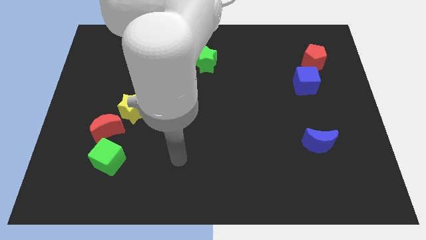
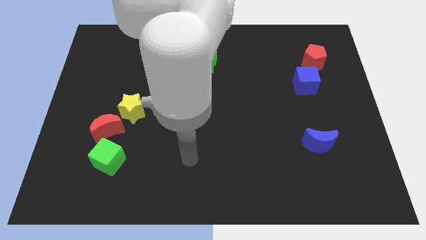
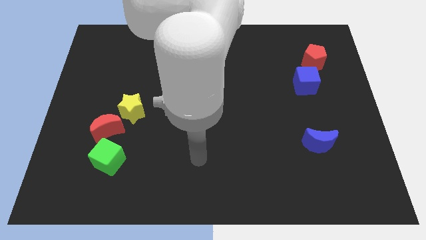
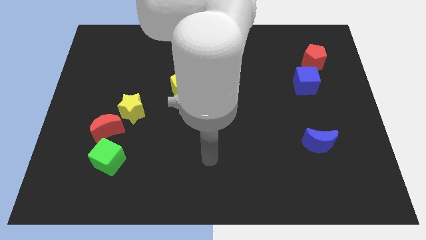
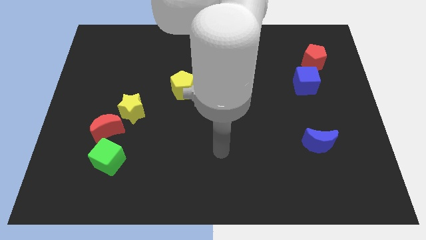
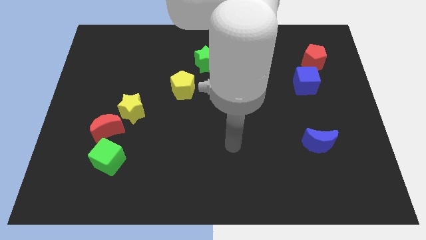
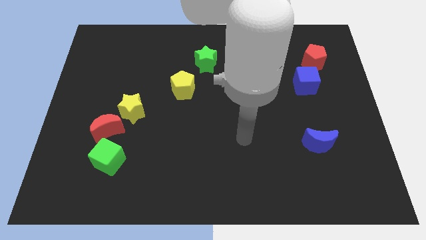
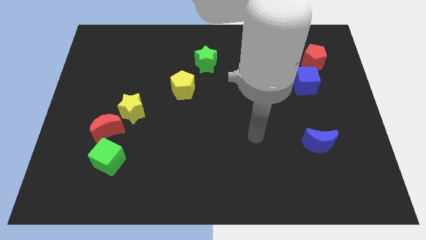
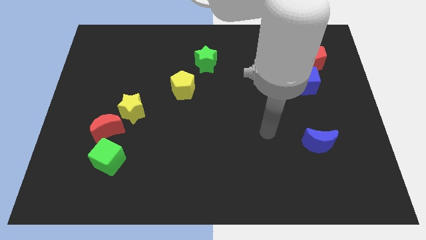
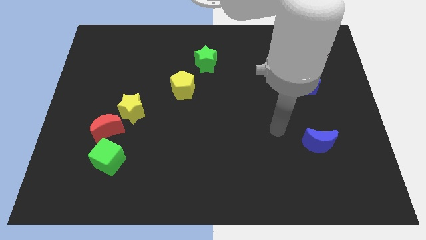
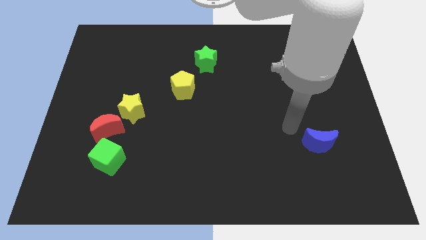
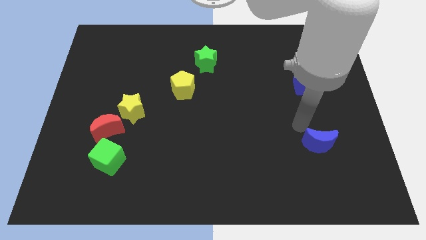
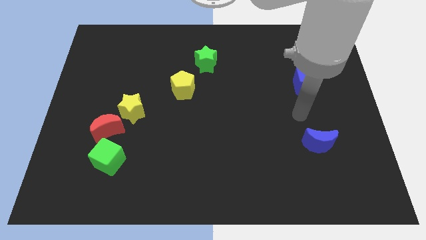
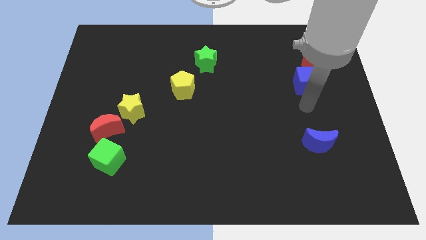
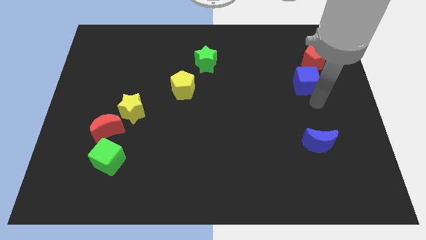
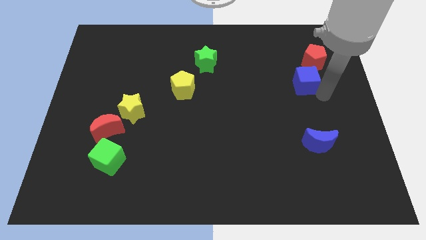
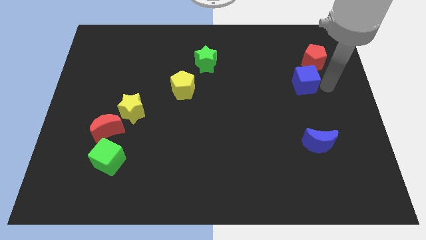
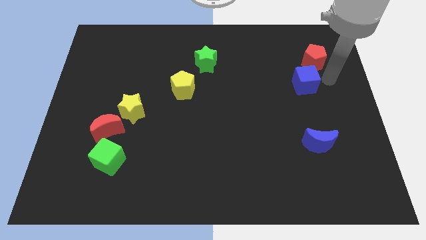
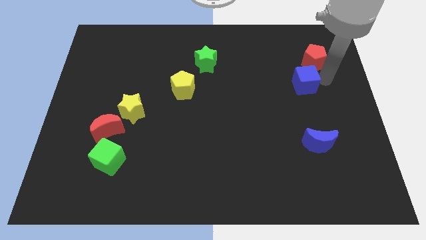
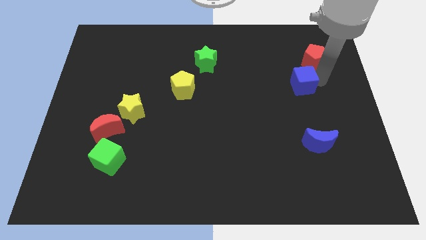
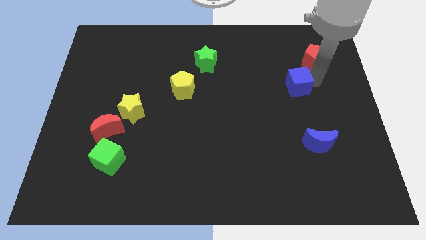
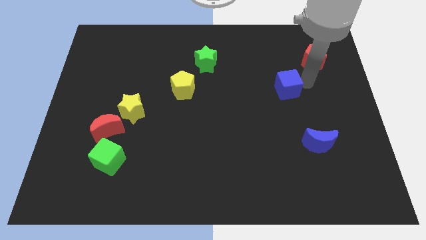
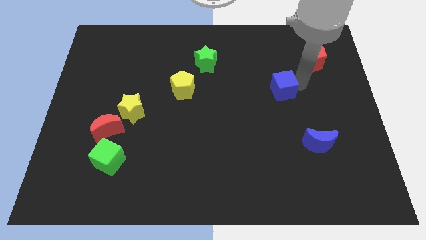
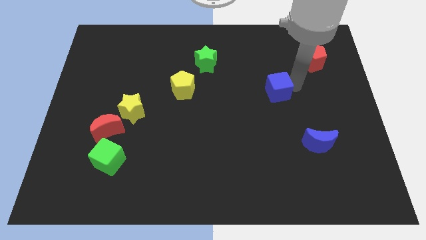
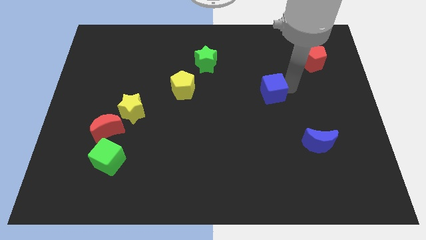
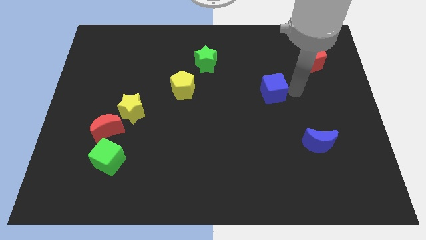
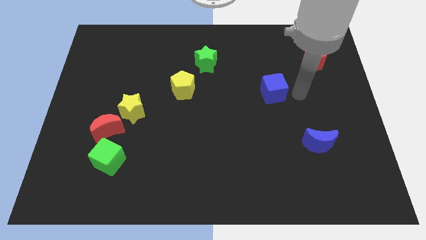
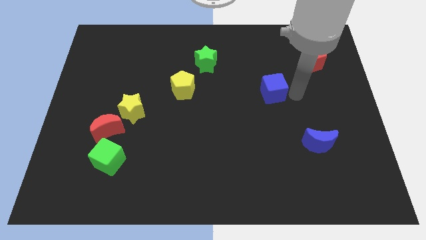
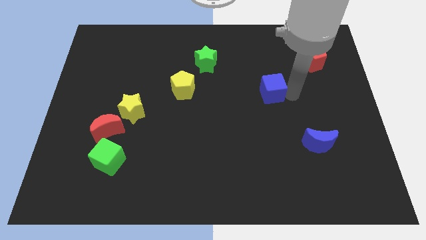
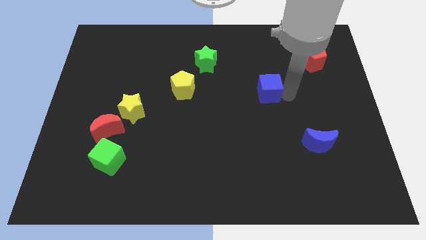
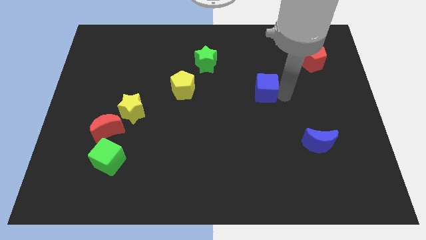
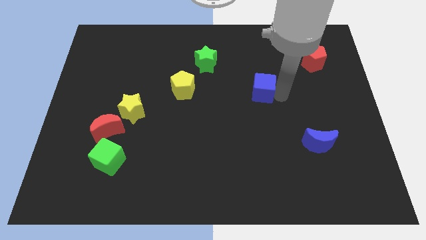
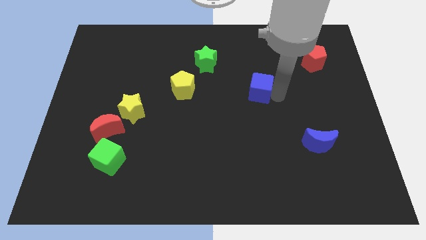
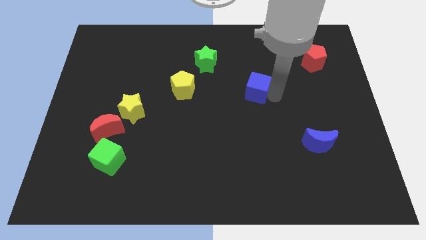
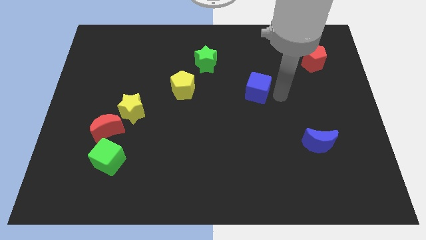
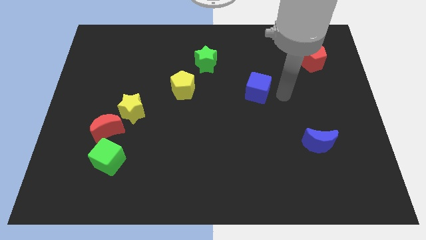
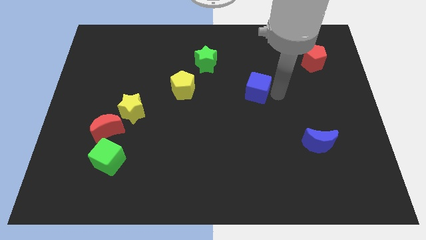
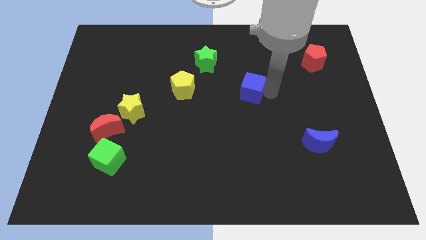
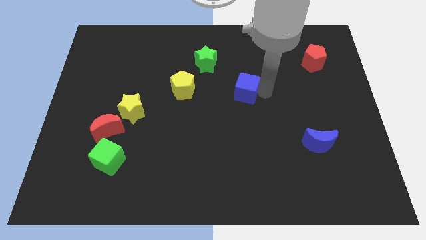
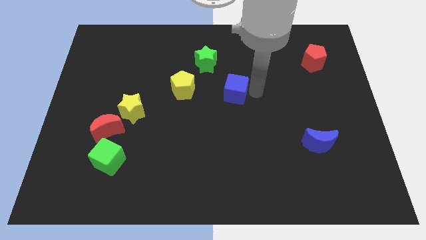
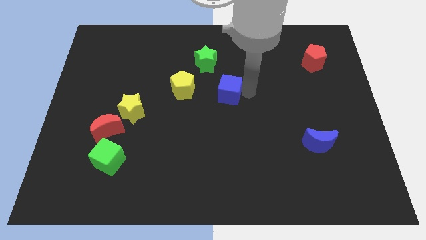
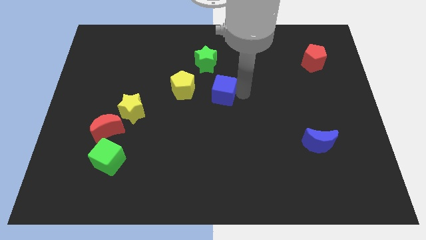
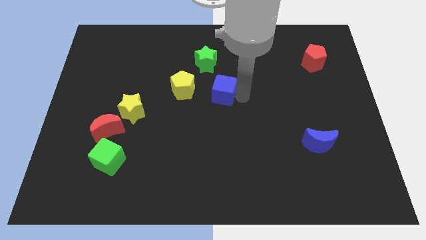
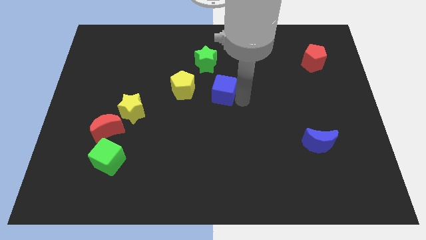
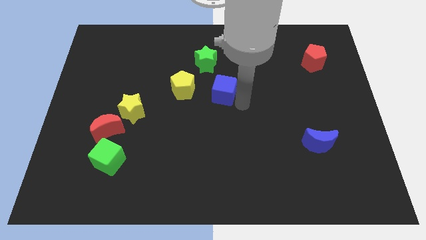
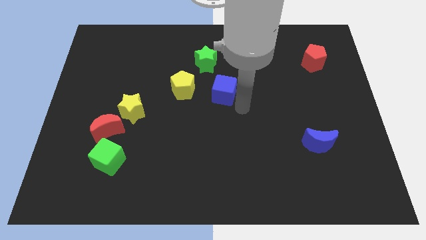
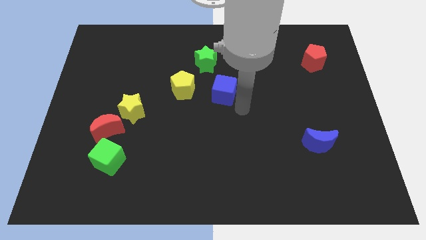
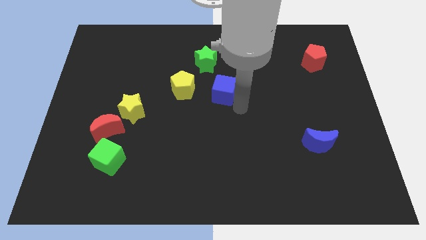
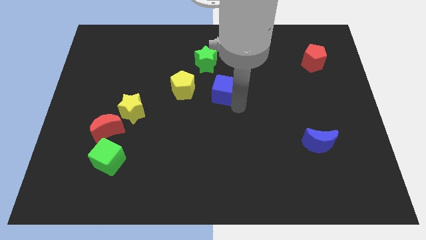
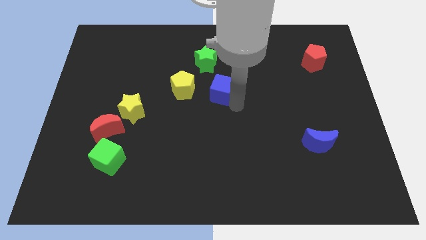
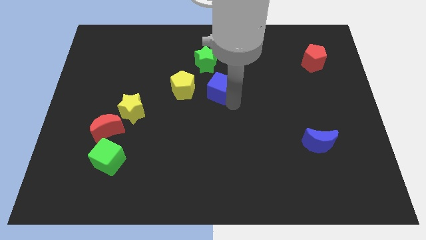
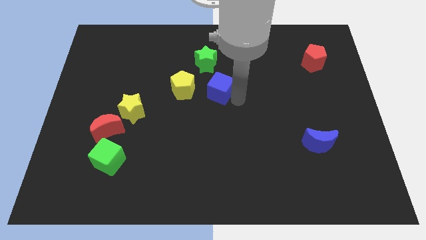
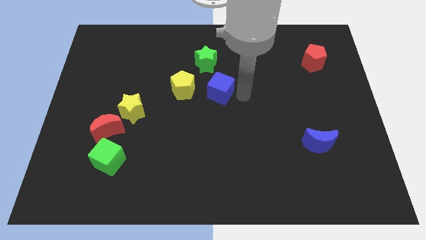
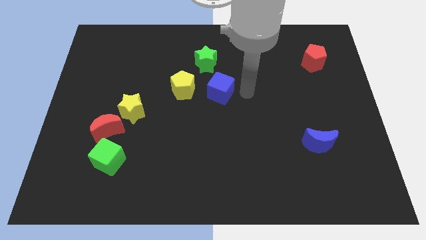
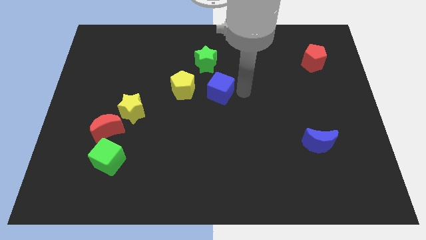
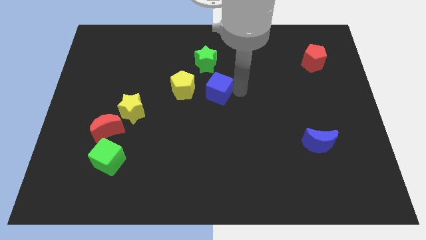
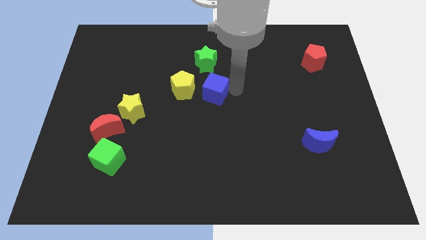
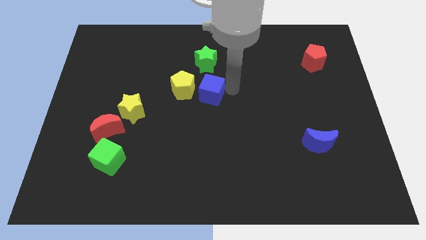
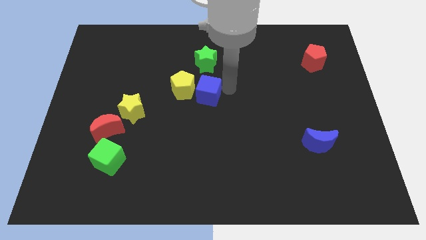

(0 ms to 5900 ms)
move the blue cube next to the yellow pentagon

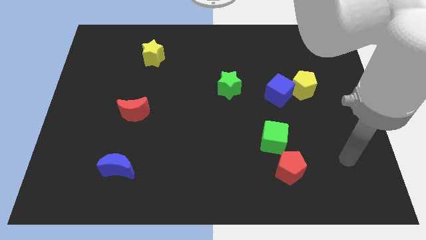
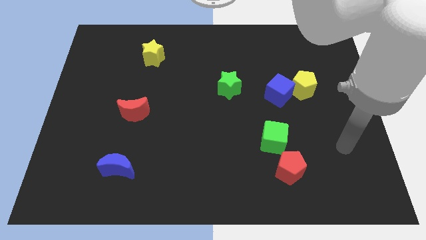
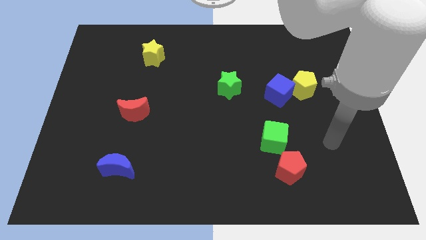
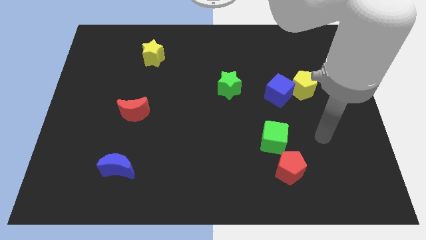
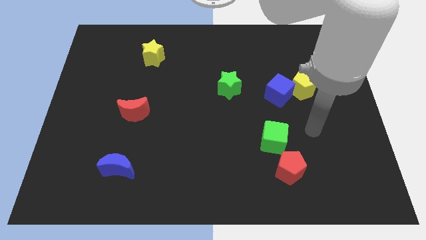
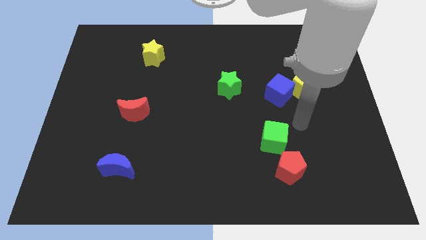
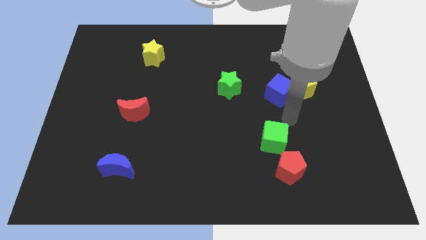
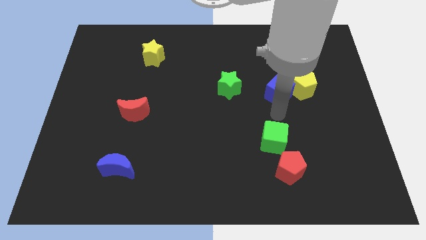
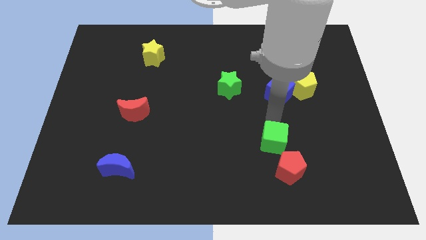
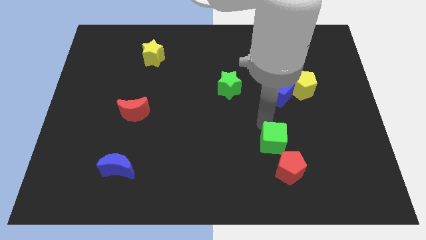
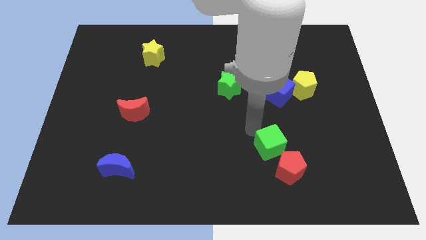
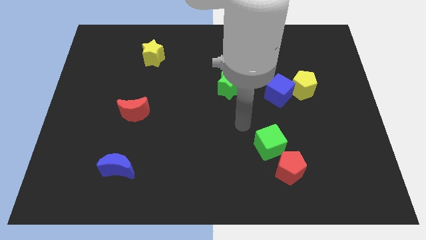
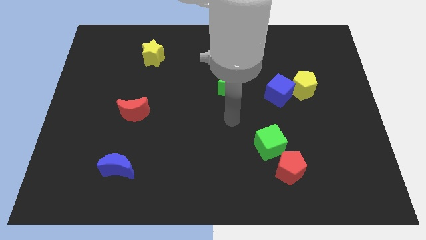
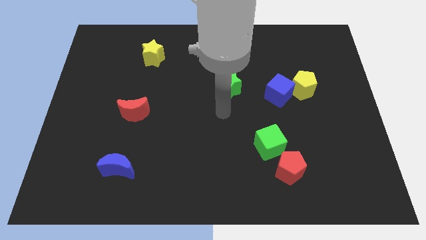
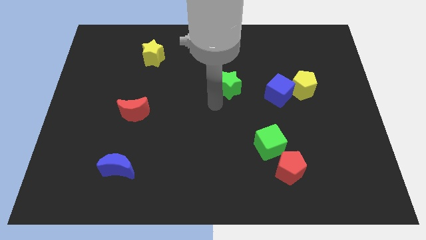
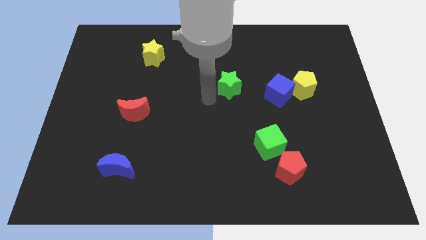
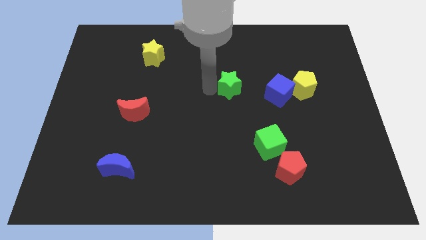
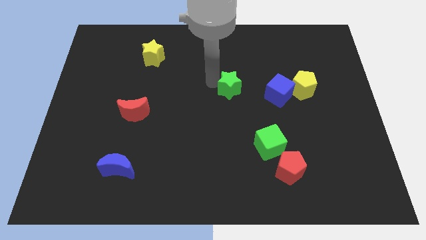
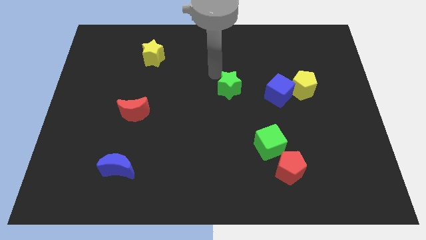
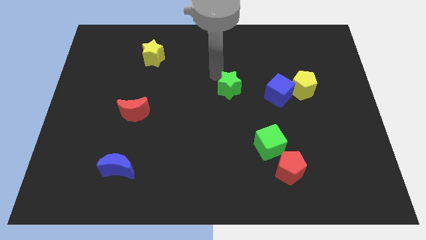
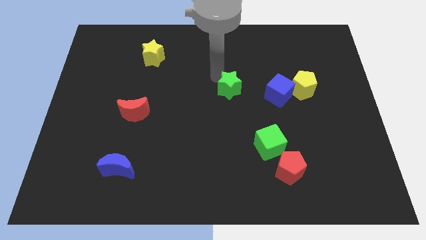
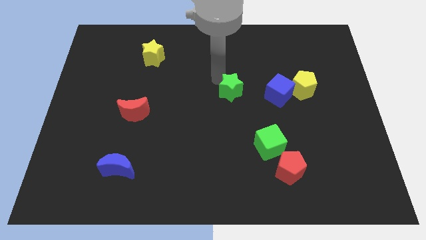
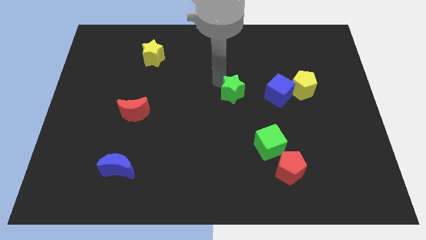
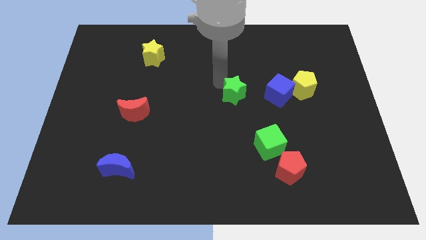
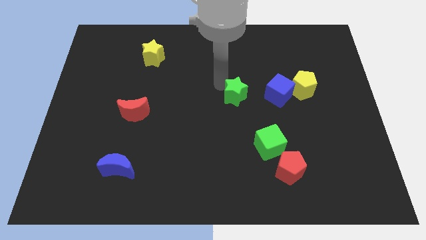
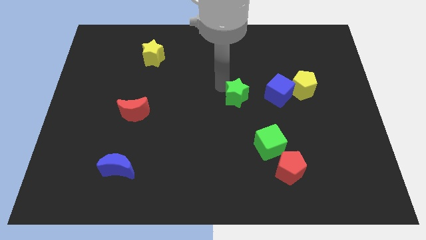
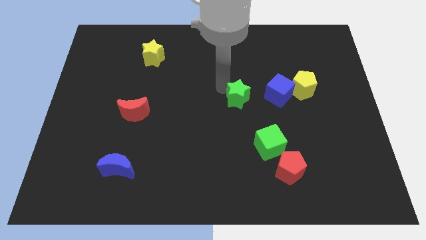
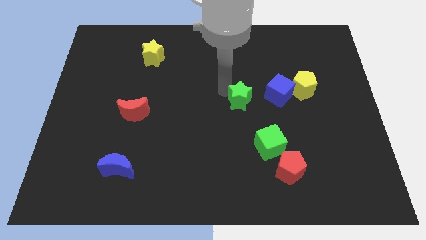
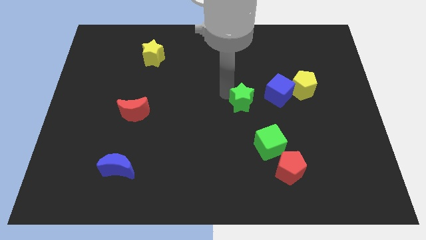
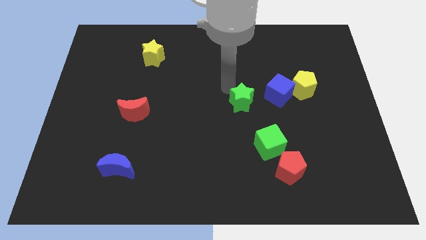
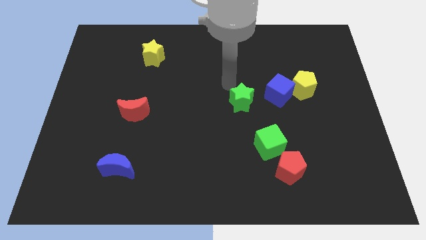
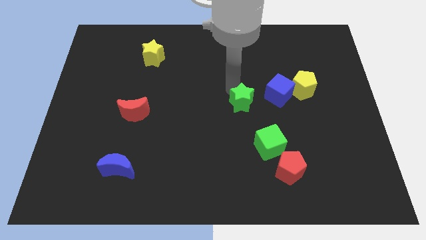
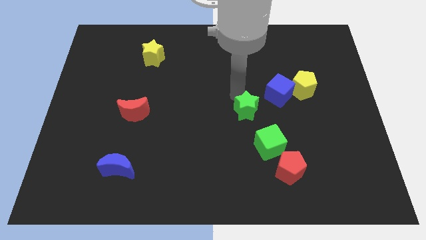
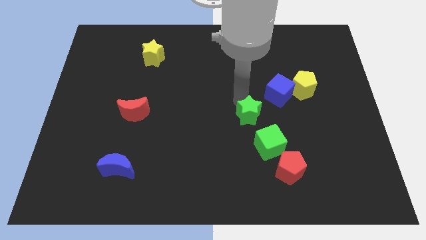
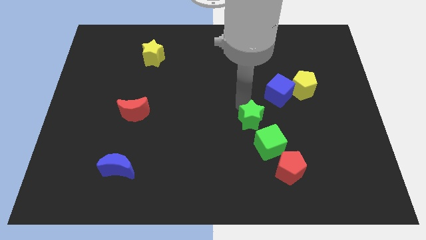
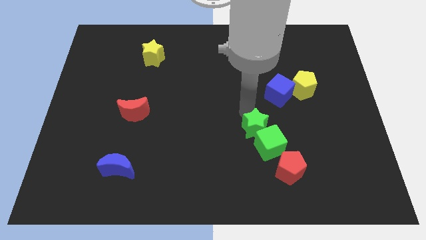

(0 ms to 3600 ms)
put the green star next to the green cube
